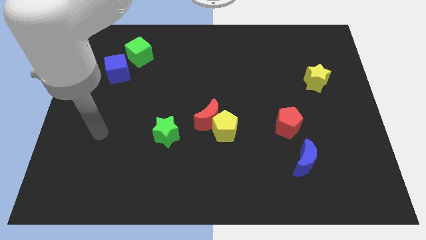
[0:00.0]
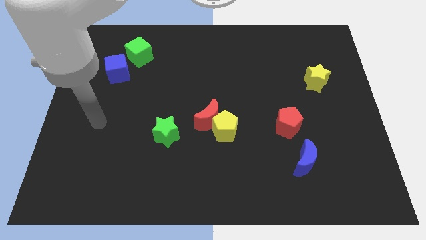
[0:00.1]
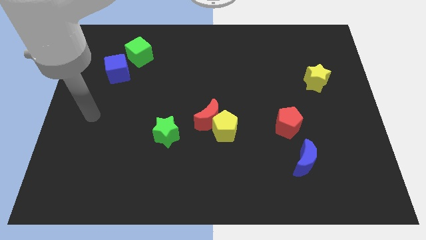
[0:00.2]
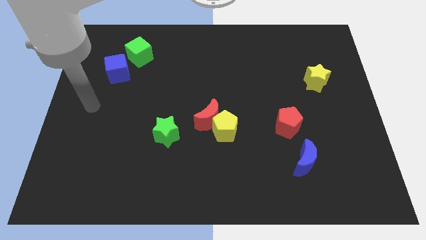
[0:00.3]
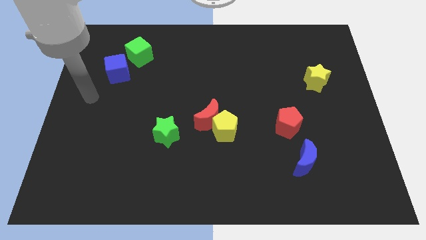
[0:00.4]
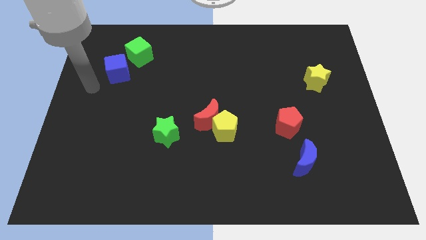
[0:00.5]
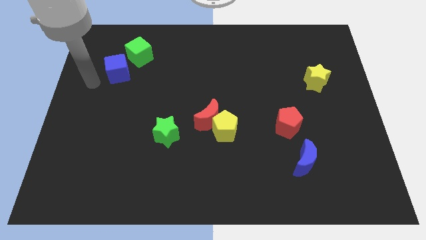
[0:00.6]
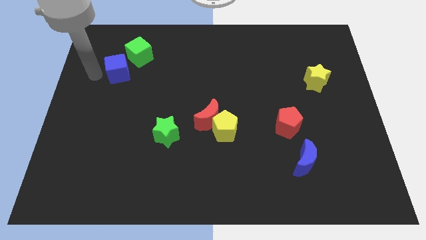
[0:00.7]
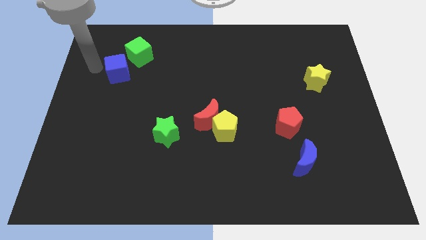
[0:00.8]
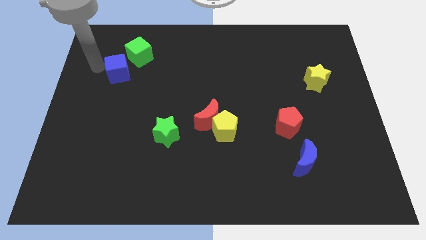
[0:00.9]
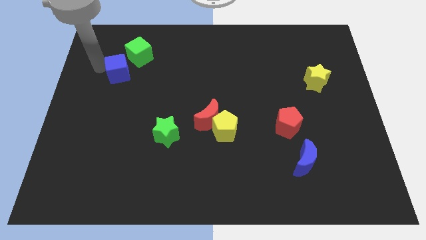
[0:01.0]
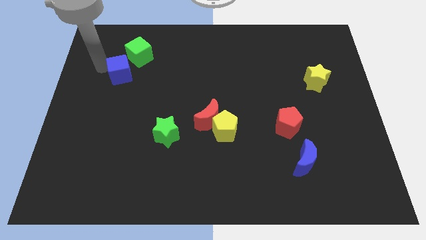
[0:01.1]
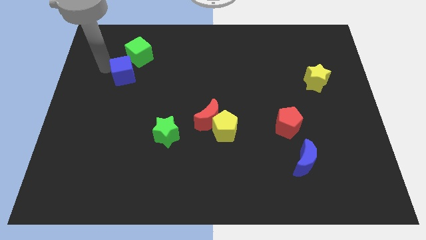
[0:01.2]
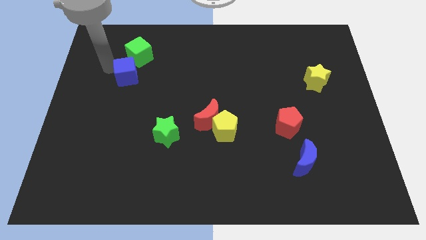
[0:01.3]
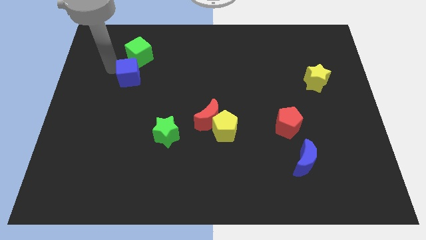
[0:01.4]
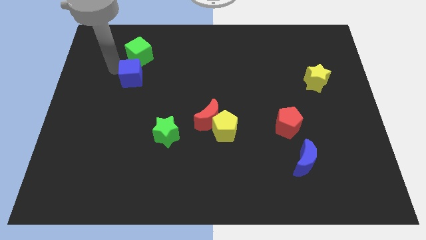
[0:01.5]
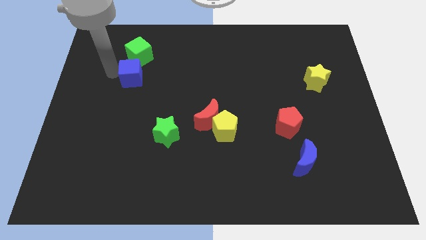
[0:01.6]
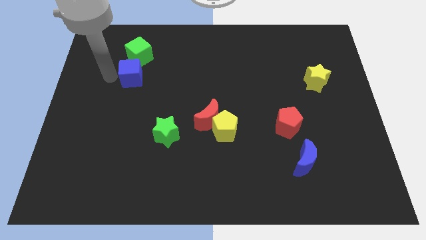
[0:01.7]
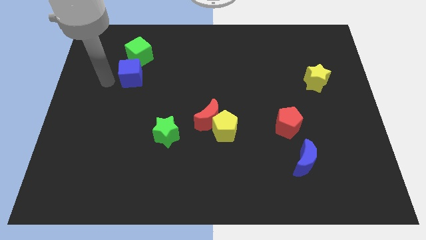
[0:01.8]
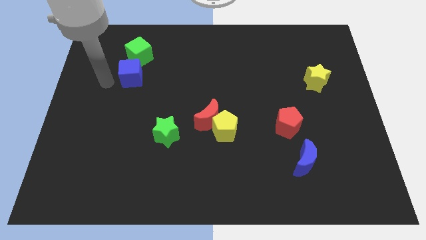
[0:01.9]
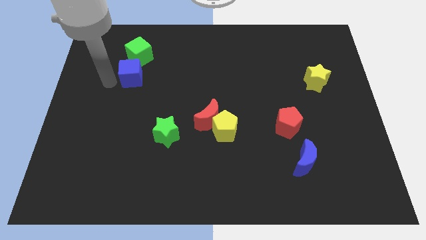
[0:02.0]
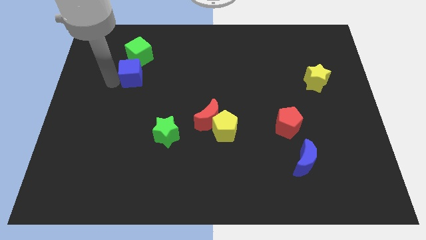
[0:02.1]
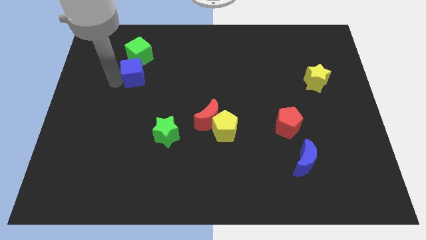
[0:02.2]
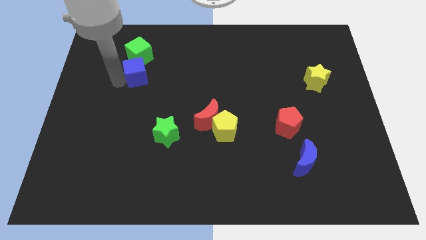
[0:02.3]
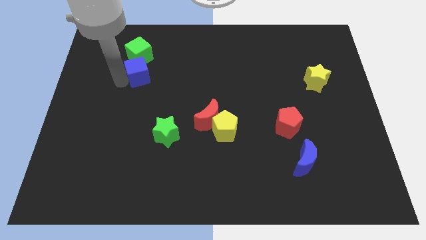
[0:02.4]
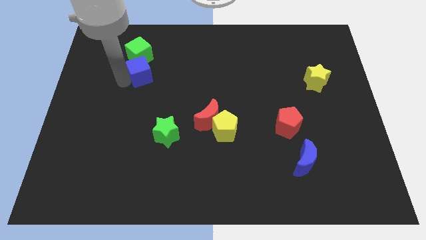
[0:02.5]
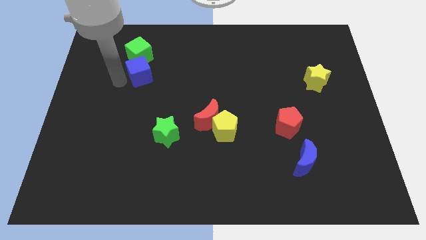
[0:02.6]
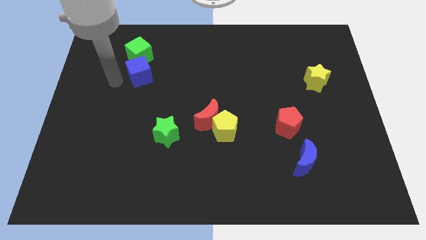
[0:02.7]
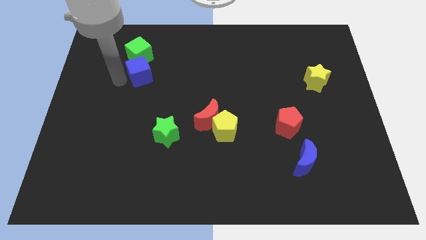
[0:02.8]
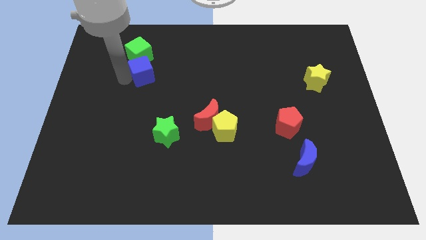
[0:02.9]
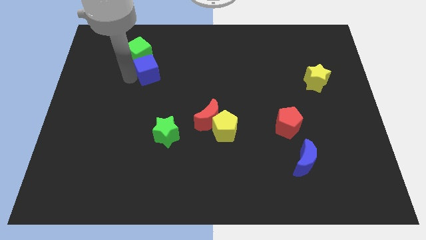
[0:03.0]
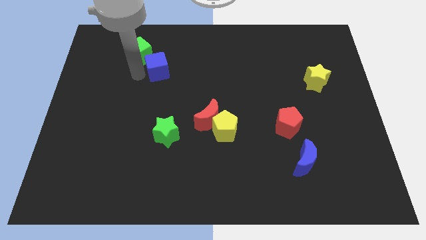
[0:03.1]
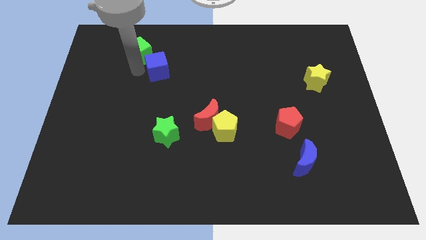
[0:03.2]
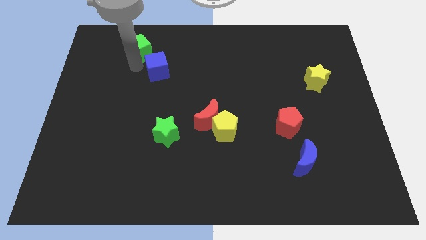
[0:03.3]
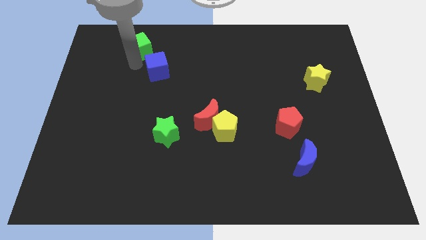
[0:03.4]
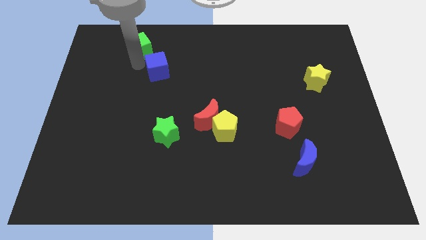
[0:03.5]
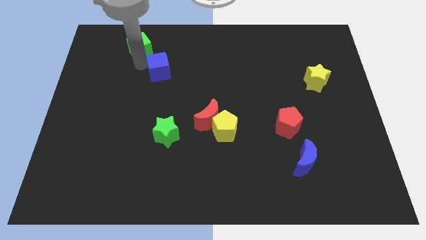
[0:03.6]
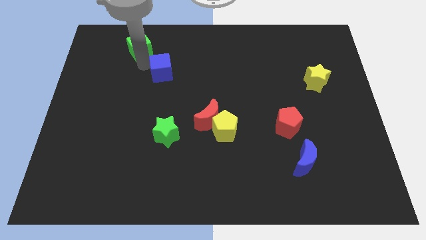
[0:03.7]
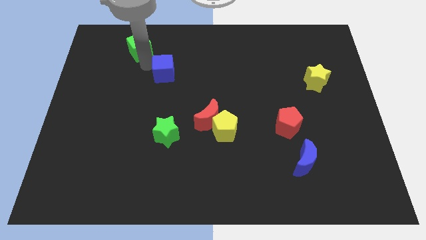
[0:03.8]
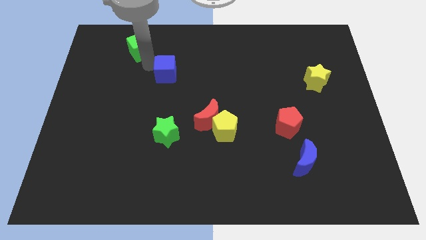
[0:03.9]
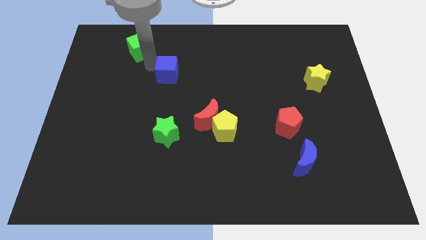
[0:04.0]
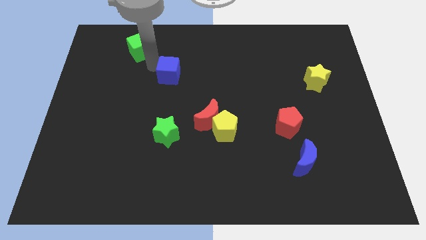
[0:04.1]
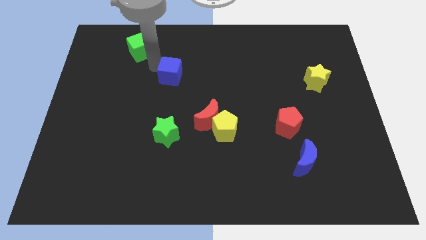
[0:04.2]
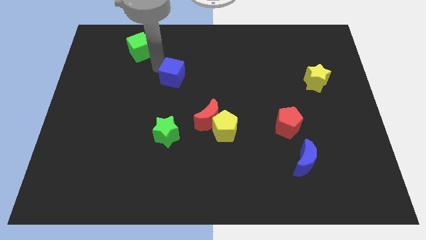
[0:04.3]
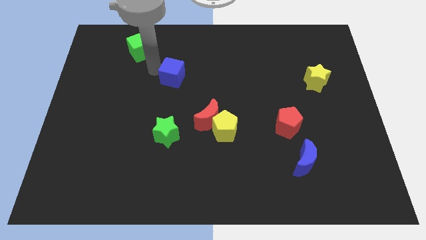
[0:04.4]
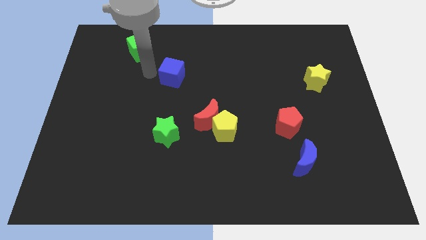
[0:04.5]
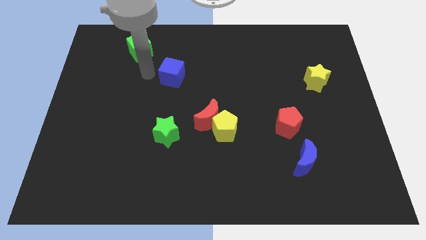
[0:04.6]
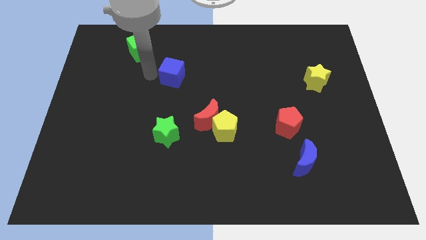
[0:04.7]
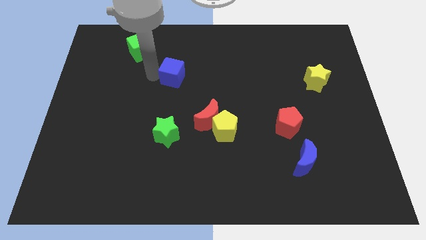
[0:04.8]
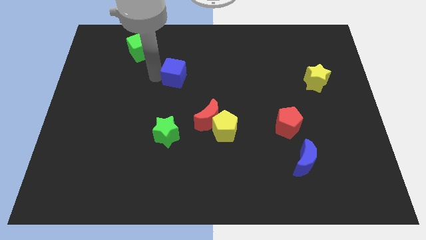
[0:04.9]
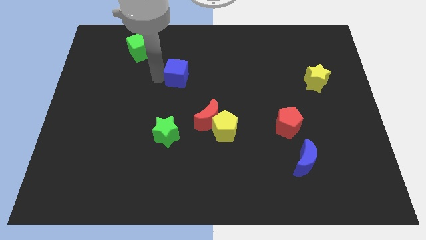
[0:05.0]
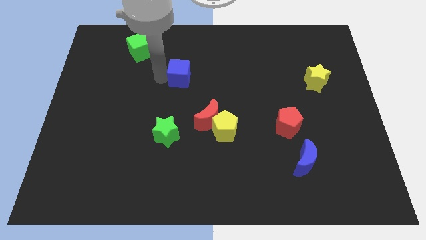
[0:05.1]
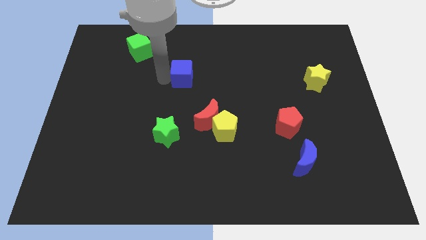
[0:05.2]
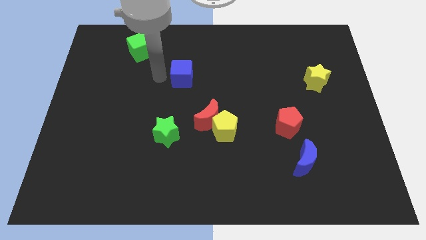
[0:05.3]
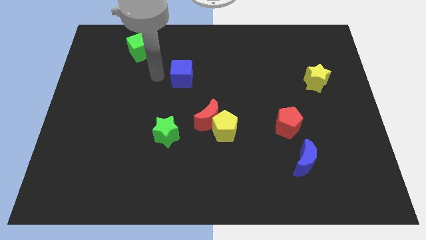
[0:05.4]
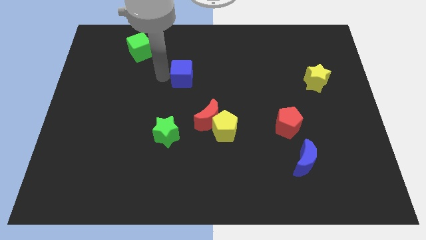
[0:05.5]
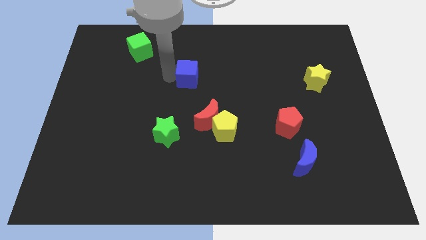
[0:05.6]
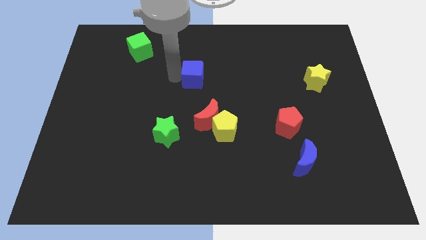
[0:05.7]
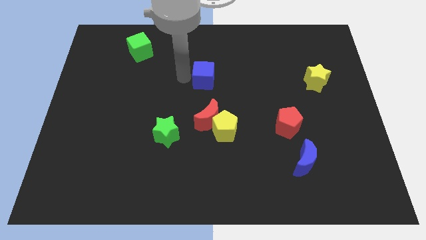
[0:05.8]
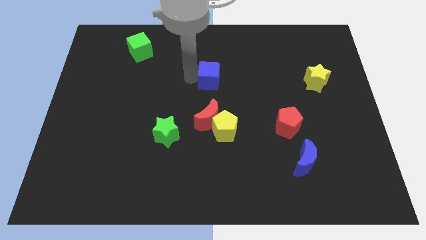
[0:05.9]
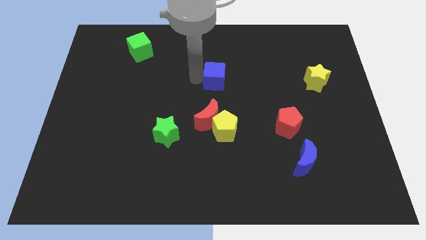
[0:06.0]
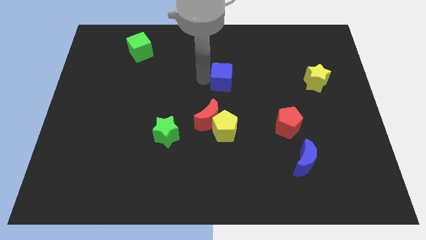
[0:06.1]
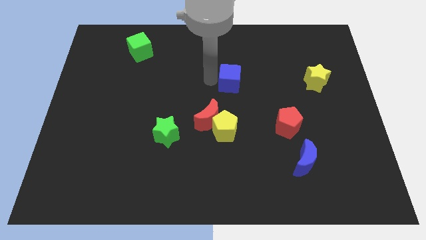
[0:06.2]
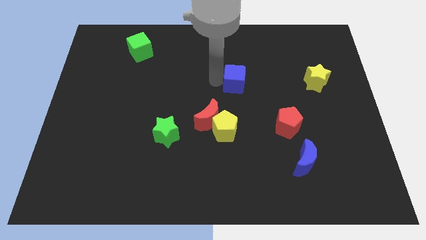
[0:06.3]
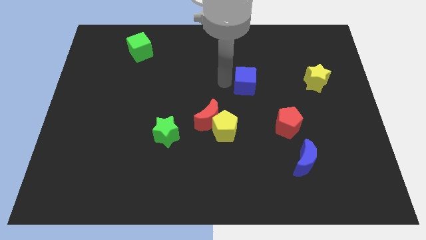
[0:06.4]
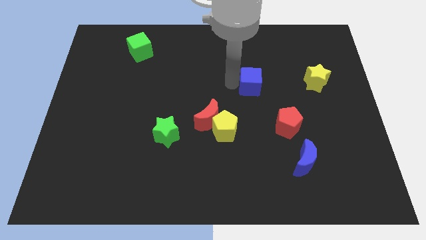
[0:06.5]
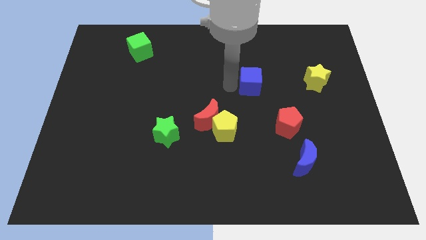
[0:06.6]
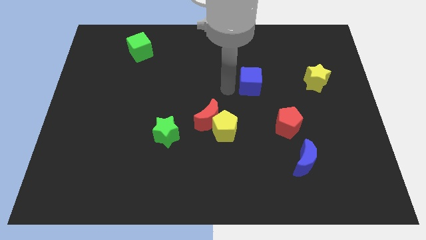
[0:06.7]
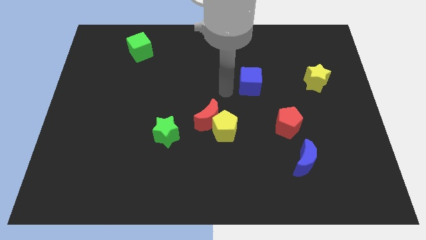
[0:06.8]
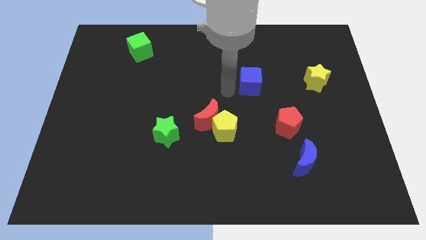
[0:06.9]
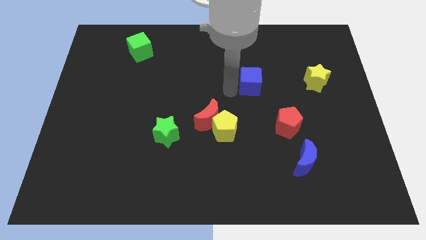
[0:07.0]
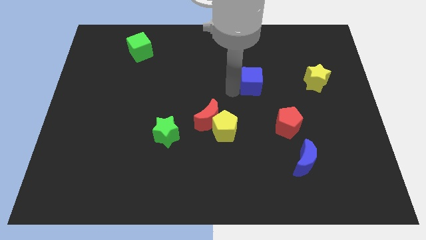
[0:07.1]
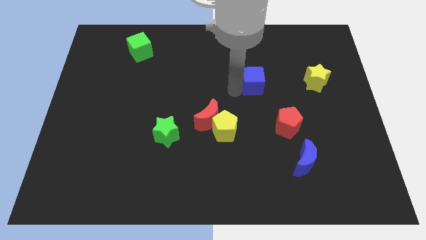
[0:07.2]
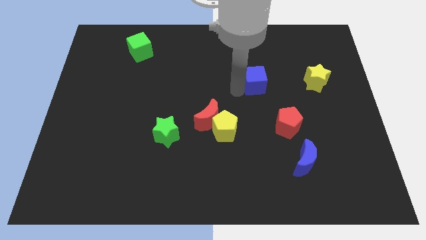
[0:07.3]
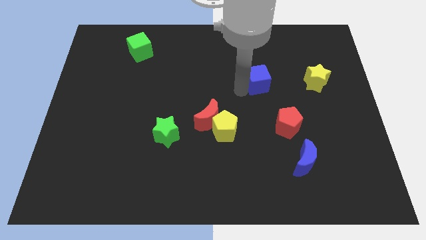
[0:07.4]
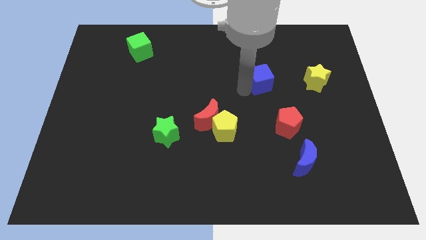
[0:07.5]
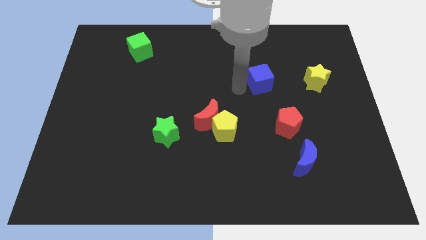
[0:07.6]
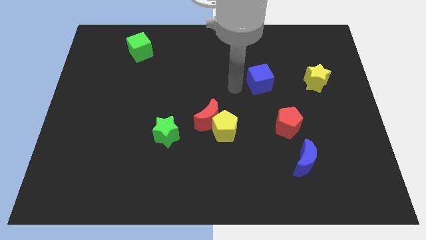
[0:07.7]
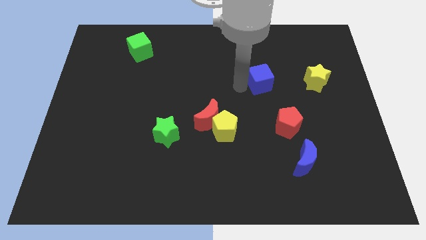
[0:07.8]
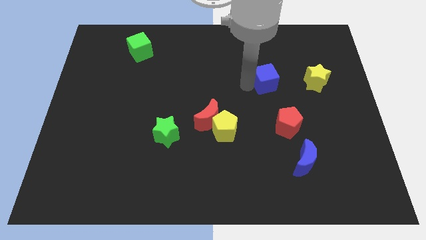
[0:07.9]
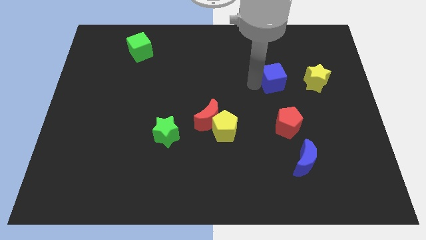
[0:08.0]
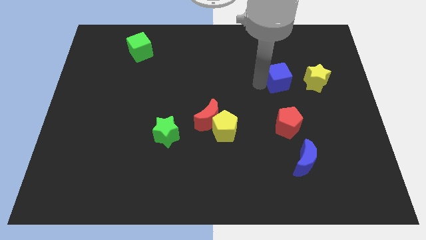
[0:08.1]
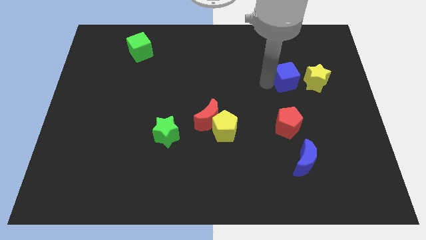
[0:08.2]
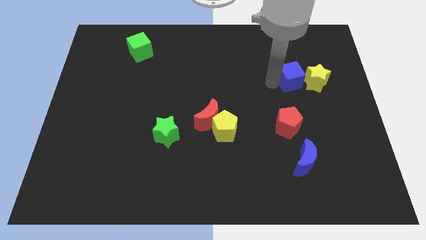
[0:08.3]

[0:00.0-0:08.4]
slide the blue cube close to the yellow star
